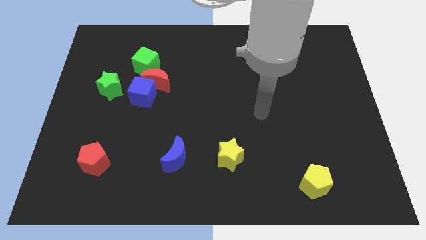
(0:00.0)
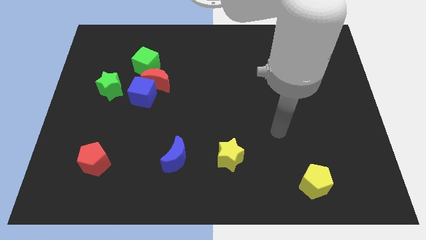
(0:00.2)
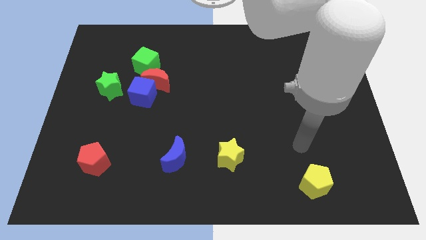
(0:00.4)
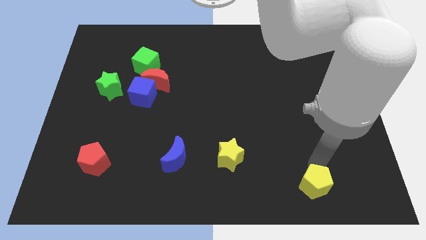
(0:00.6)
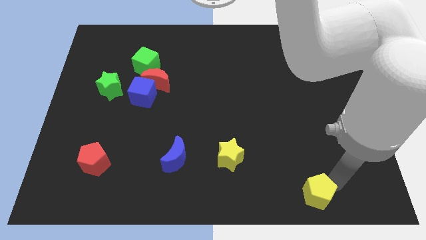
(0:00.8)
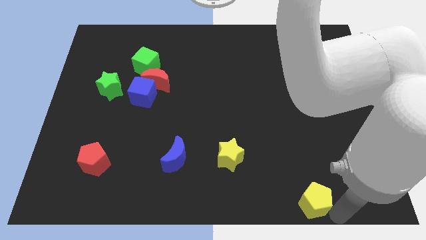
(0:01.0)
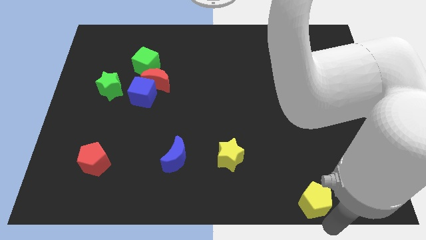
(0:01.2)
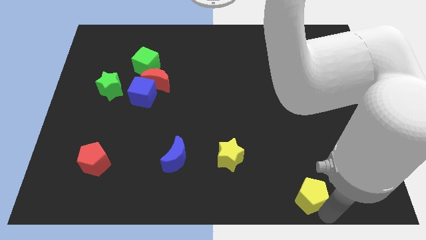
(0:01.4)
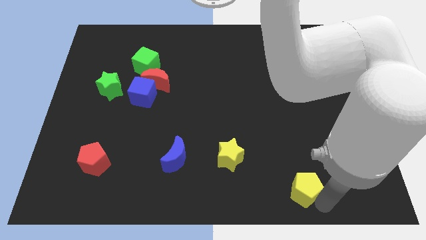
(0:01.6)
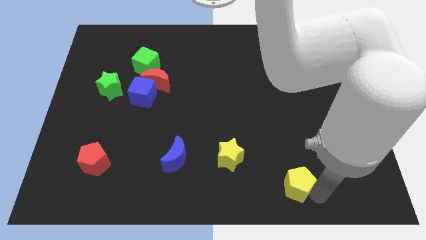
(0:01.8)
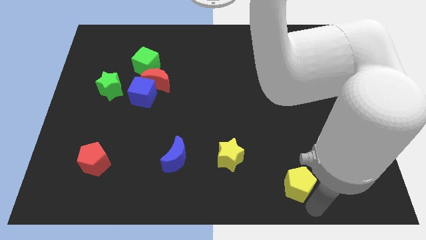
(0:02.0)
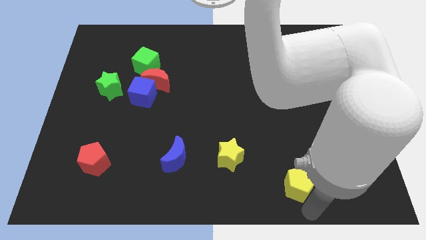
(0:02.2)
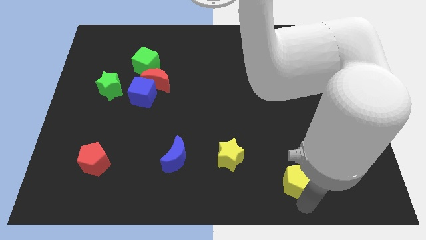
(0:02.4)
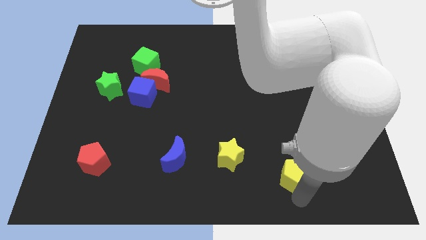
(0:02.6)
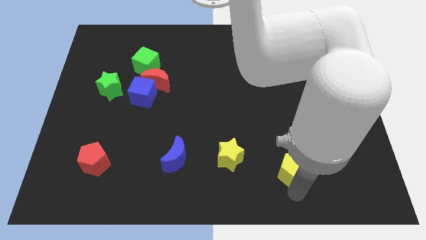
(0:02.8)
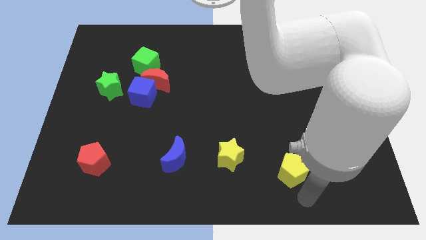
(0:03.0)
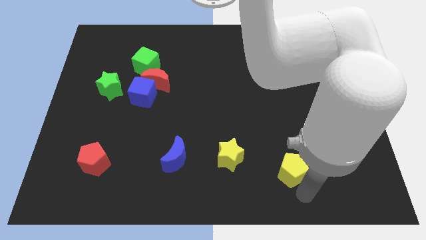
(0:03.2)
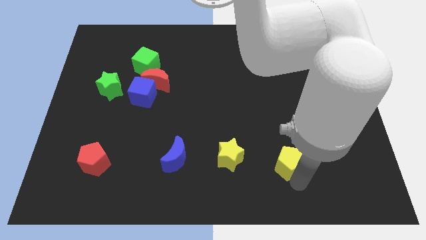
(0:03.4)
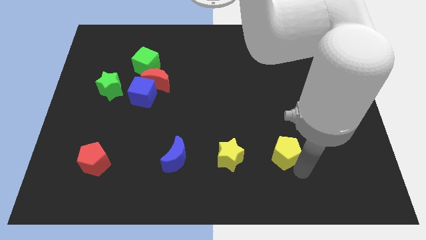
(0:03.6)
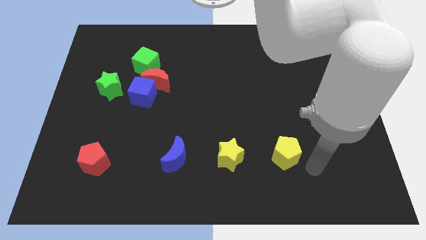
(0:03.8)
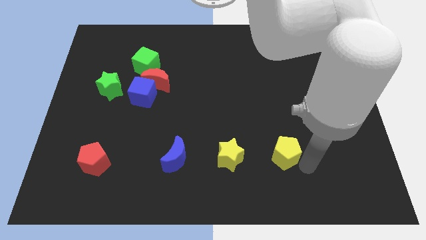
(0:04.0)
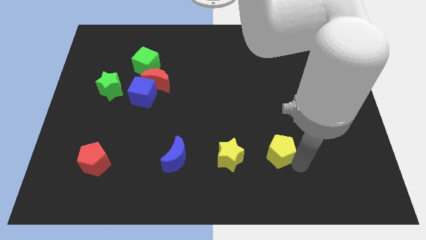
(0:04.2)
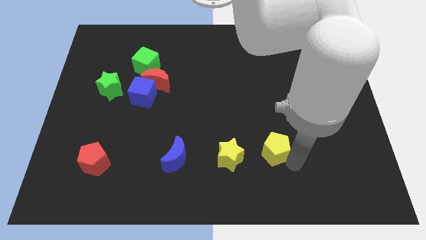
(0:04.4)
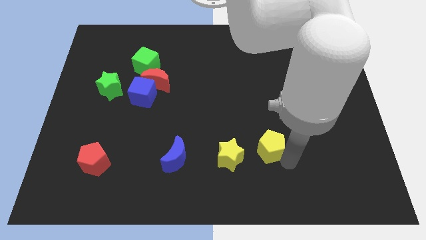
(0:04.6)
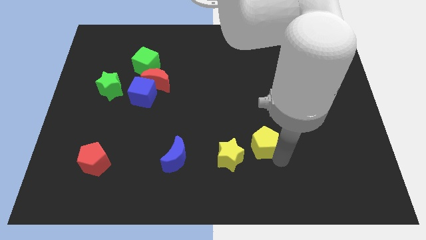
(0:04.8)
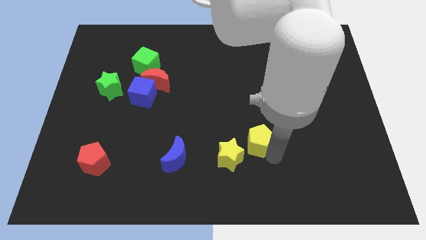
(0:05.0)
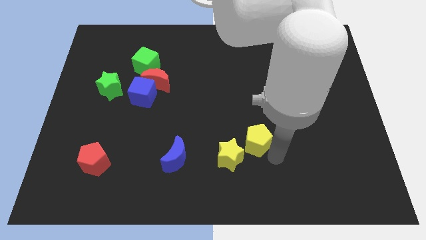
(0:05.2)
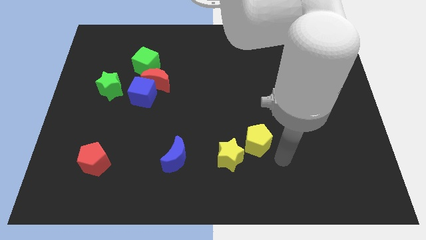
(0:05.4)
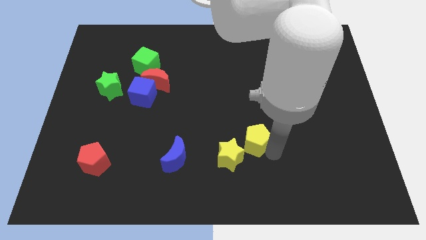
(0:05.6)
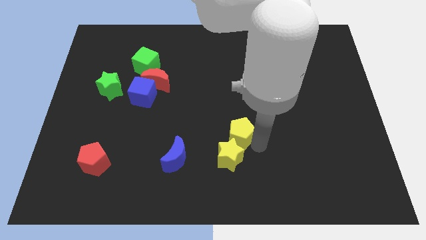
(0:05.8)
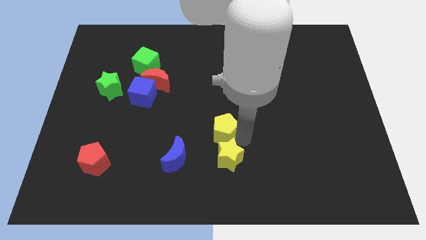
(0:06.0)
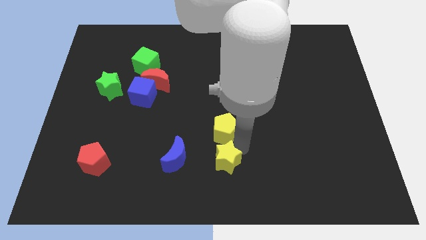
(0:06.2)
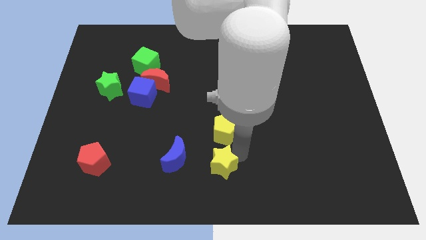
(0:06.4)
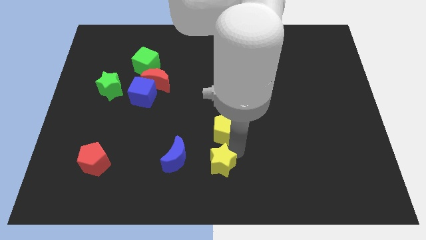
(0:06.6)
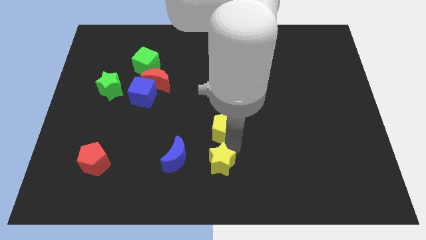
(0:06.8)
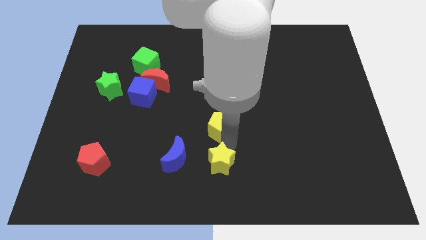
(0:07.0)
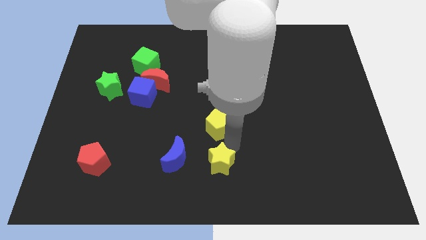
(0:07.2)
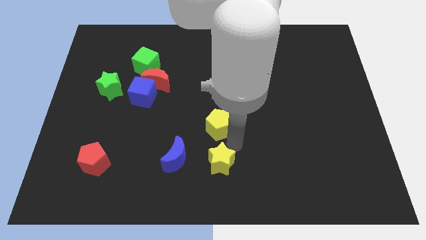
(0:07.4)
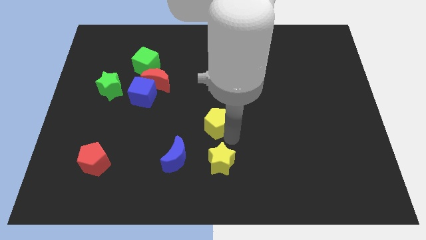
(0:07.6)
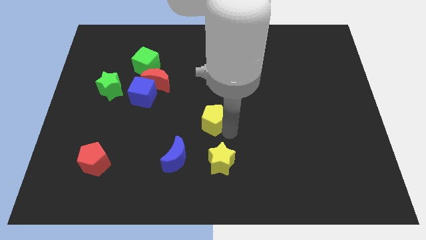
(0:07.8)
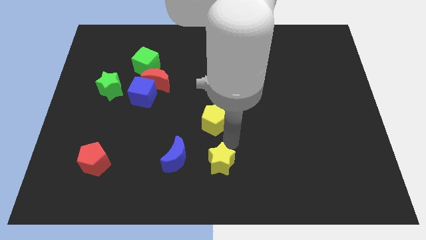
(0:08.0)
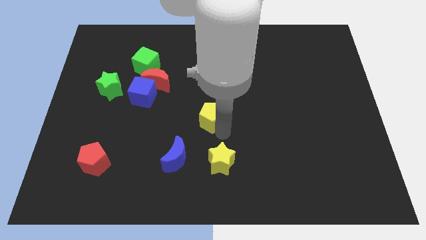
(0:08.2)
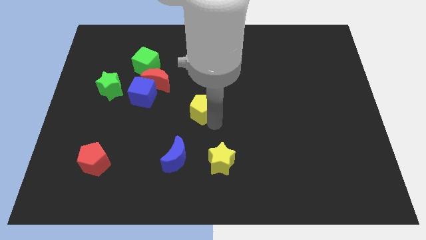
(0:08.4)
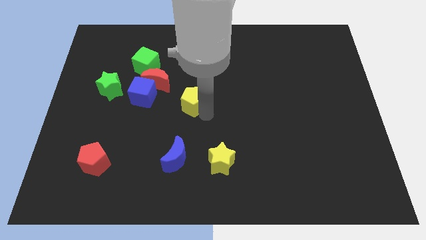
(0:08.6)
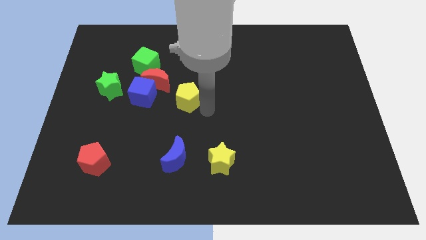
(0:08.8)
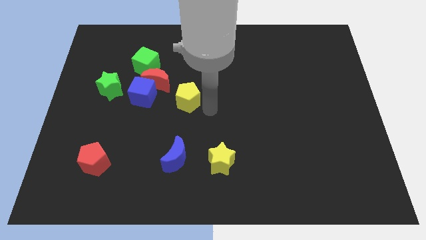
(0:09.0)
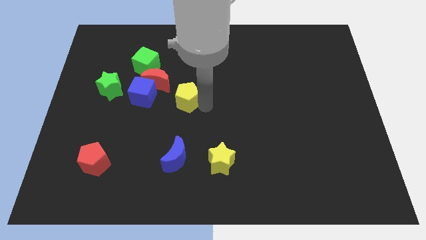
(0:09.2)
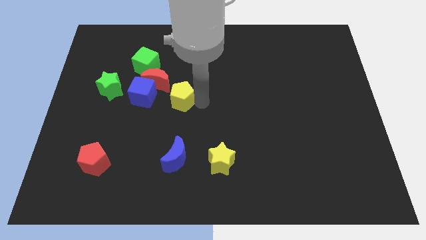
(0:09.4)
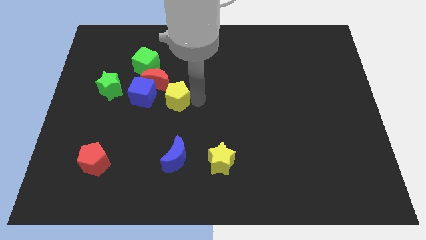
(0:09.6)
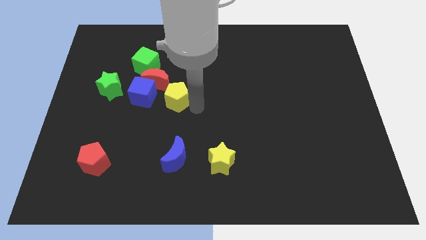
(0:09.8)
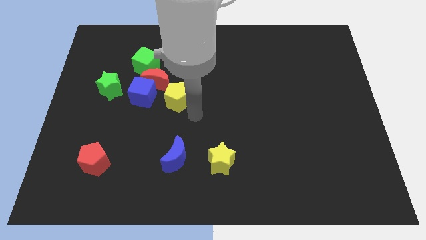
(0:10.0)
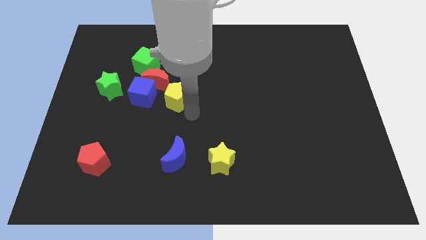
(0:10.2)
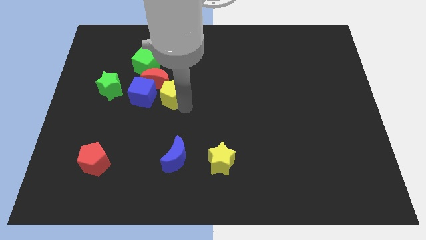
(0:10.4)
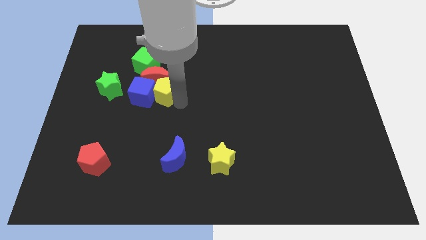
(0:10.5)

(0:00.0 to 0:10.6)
move the yellow pentagon next to the red moon

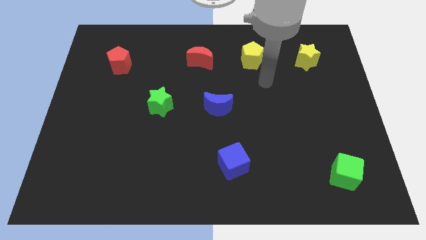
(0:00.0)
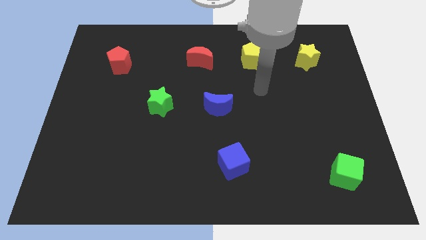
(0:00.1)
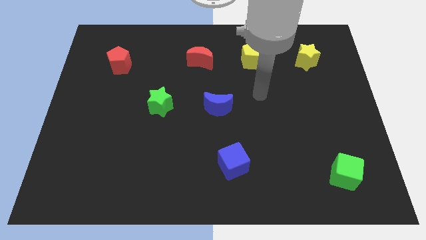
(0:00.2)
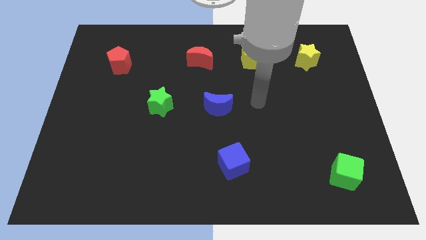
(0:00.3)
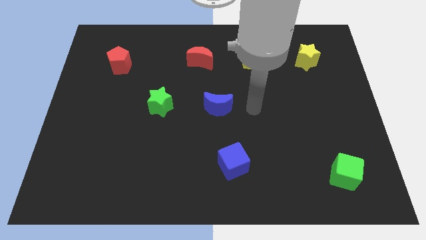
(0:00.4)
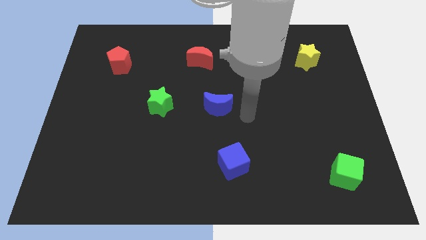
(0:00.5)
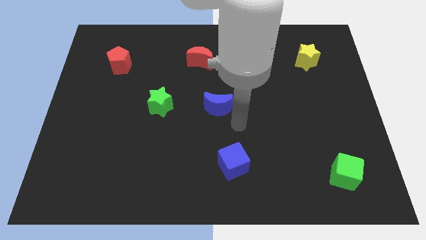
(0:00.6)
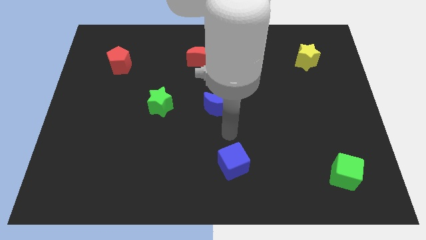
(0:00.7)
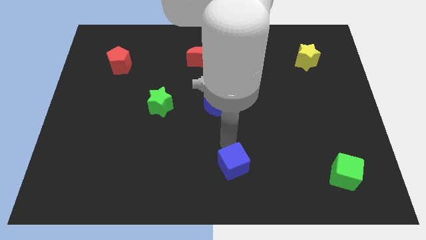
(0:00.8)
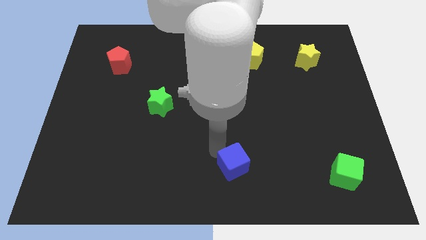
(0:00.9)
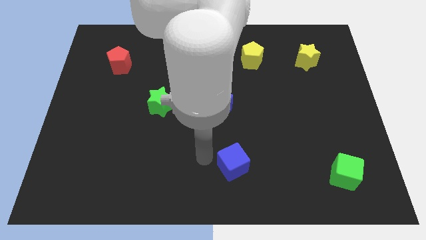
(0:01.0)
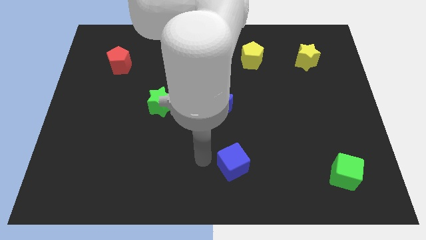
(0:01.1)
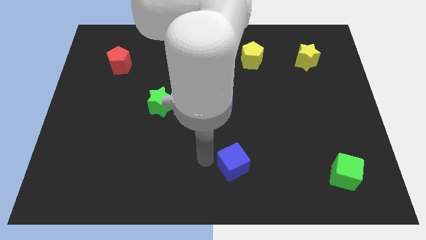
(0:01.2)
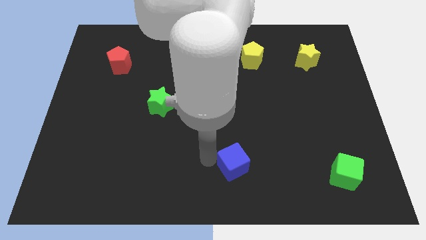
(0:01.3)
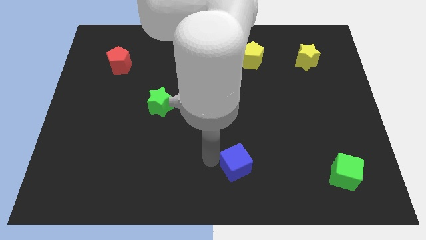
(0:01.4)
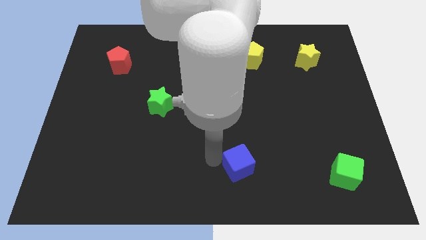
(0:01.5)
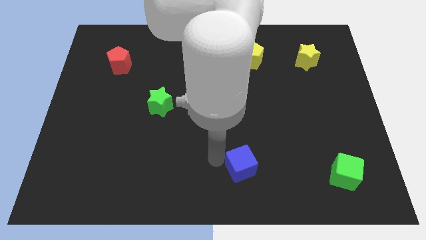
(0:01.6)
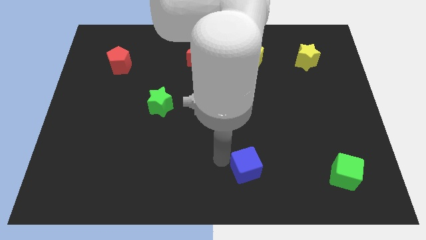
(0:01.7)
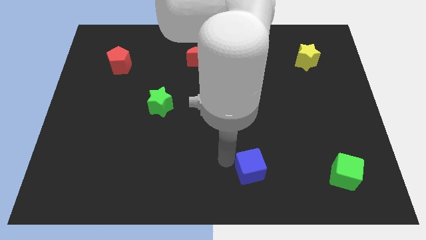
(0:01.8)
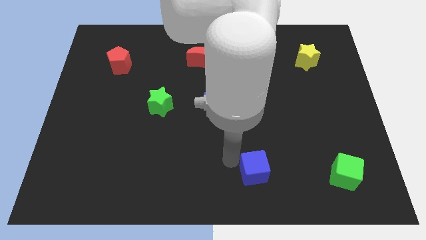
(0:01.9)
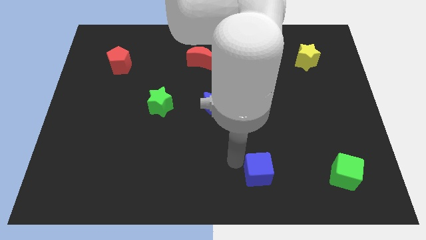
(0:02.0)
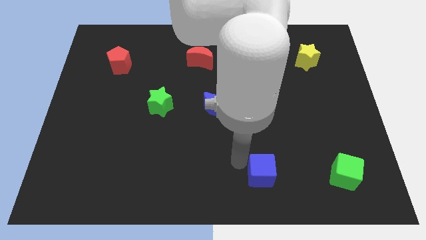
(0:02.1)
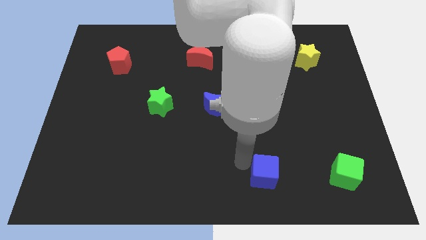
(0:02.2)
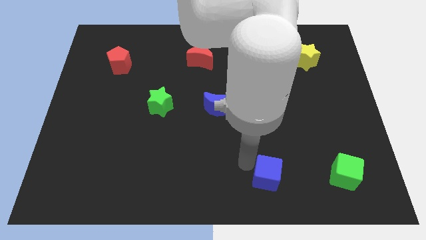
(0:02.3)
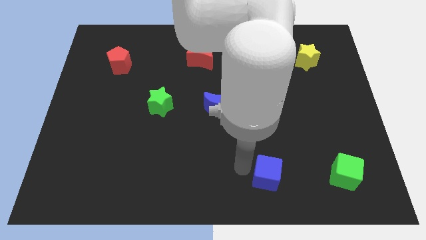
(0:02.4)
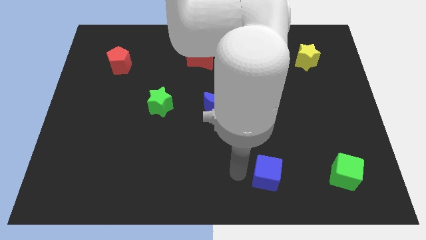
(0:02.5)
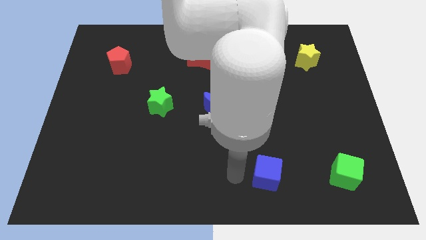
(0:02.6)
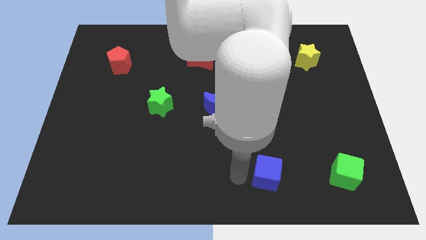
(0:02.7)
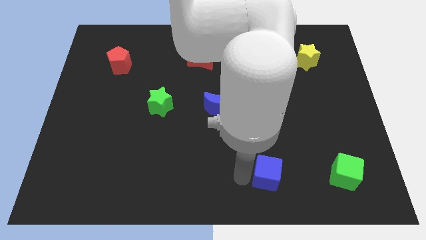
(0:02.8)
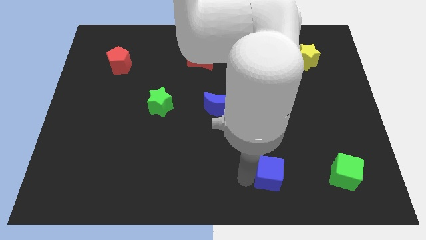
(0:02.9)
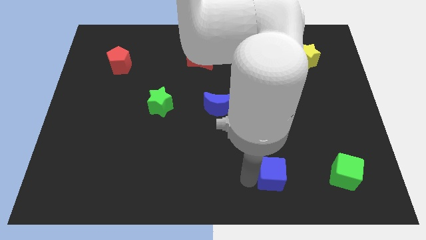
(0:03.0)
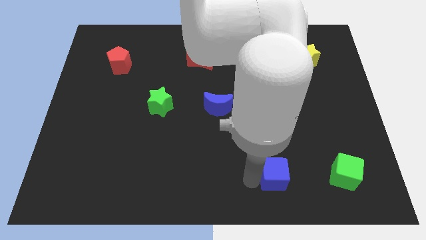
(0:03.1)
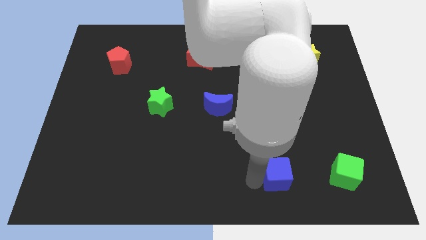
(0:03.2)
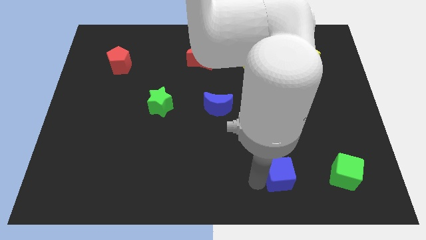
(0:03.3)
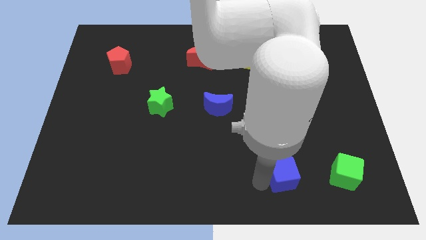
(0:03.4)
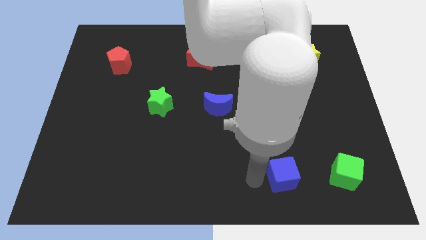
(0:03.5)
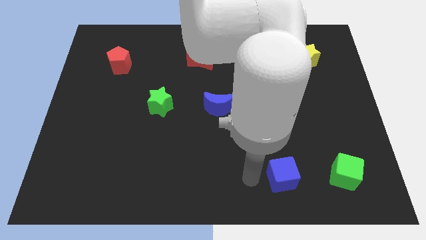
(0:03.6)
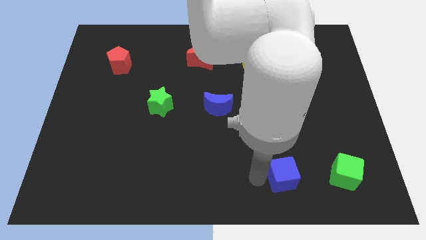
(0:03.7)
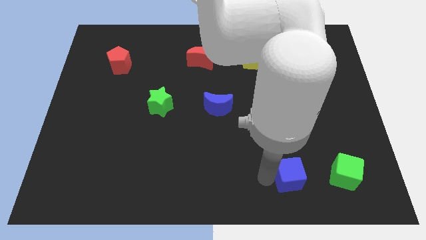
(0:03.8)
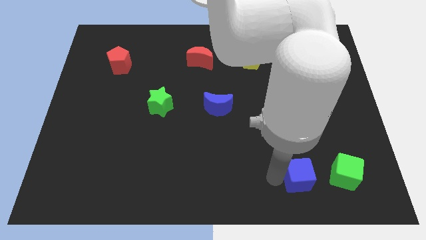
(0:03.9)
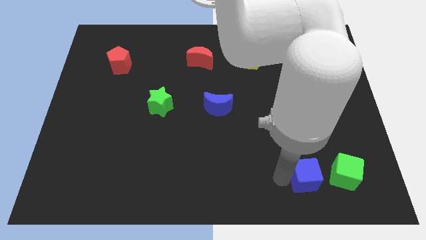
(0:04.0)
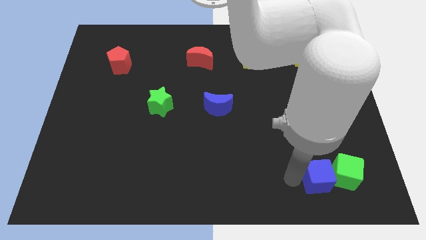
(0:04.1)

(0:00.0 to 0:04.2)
push the blue cube next to the green cube
